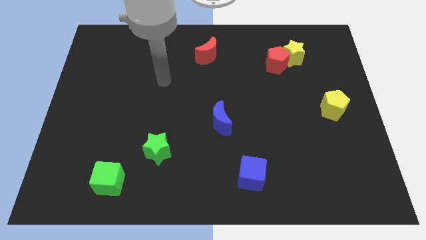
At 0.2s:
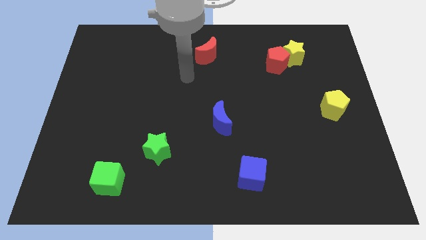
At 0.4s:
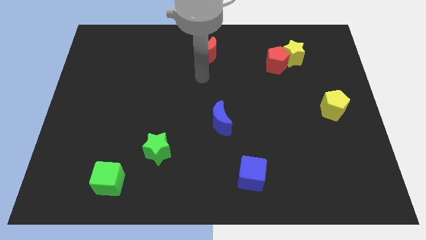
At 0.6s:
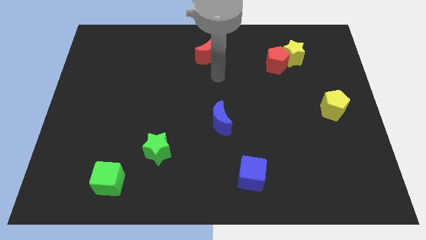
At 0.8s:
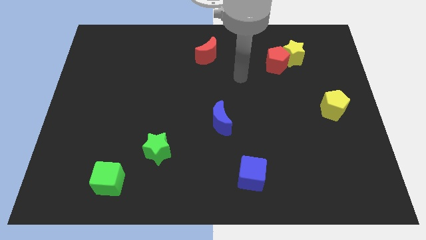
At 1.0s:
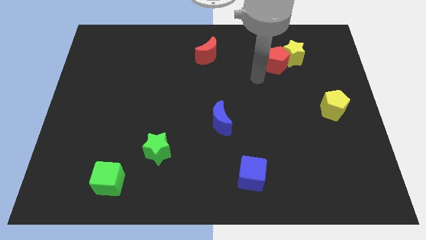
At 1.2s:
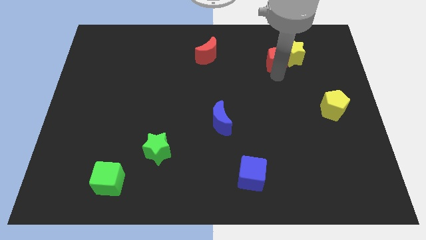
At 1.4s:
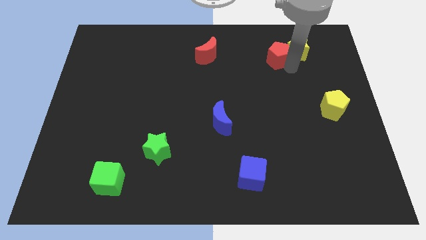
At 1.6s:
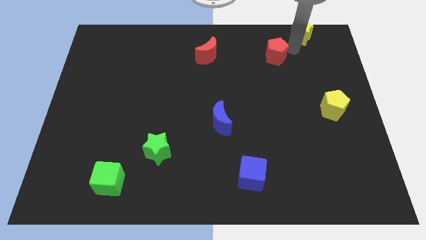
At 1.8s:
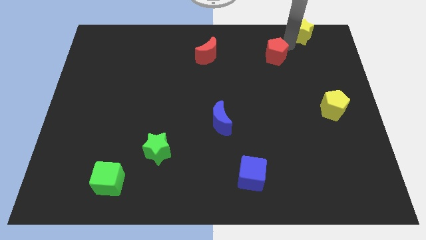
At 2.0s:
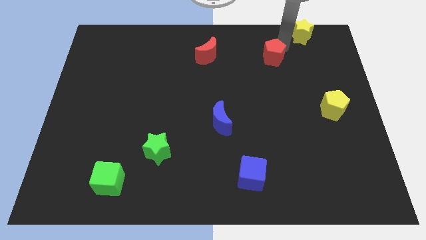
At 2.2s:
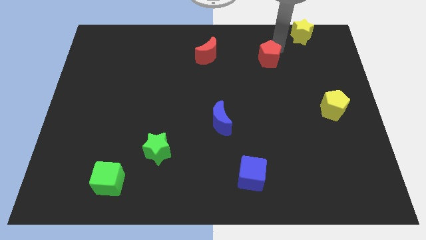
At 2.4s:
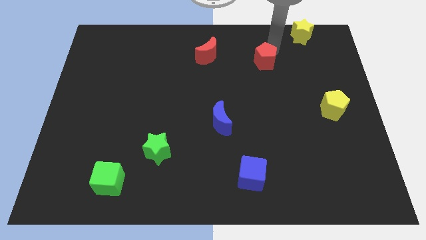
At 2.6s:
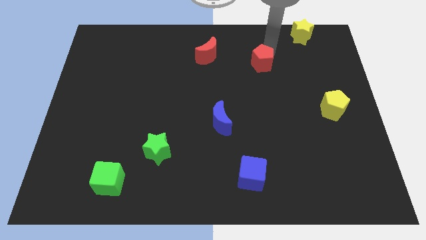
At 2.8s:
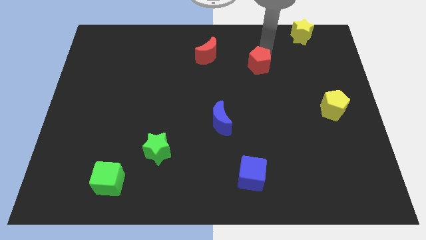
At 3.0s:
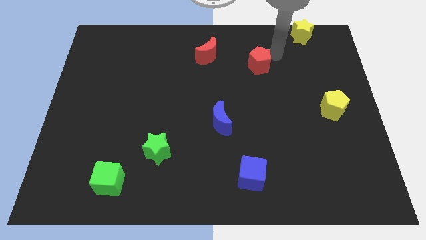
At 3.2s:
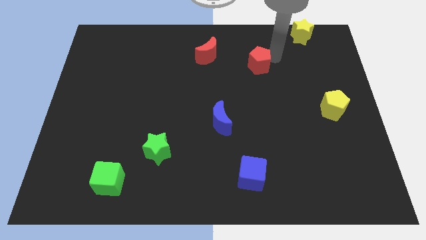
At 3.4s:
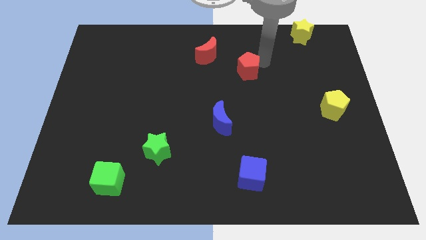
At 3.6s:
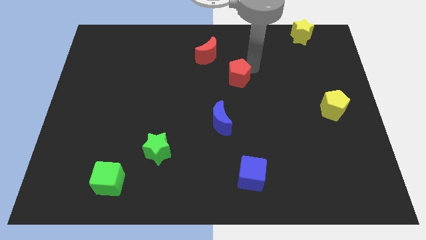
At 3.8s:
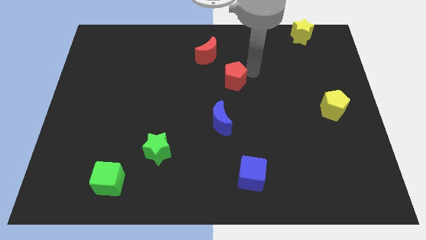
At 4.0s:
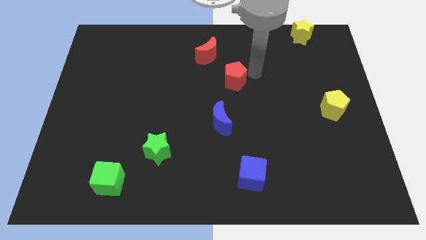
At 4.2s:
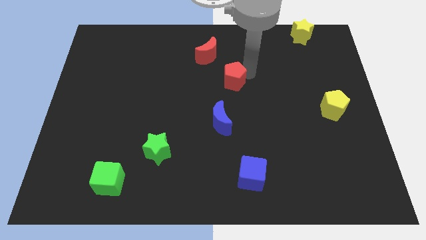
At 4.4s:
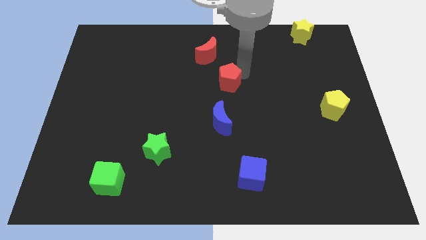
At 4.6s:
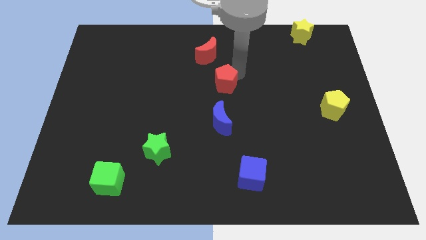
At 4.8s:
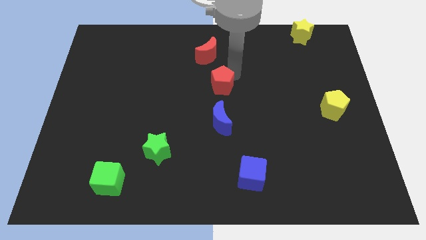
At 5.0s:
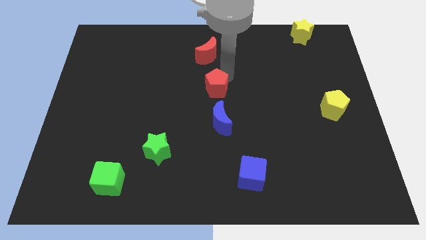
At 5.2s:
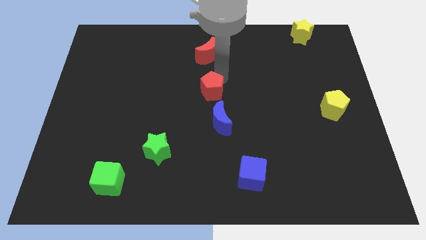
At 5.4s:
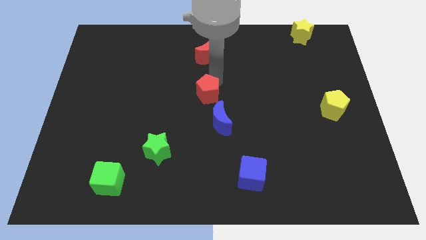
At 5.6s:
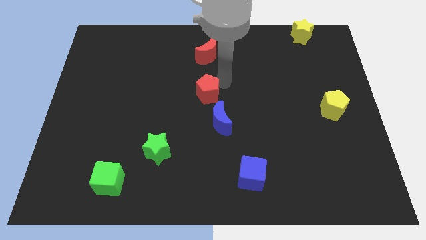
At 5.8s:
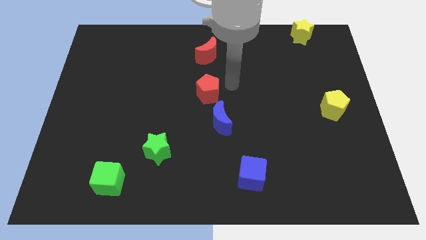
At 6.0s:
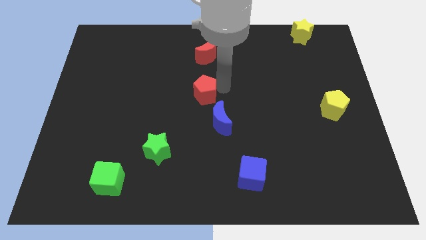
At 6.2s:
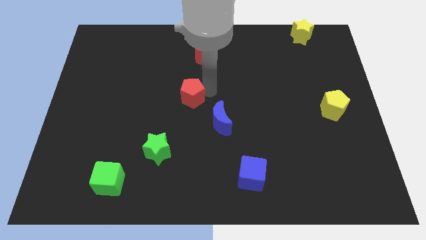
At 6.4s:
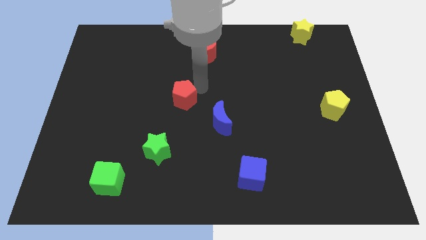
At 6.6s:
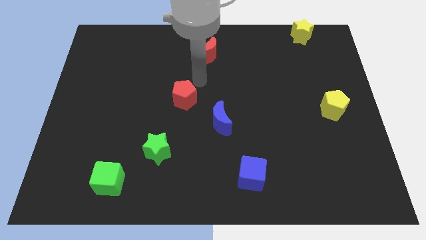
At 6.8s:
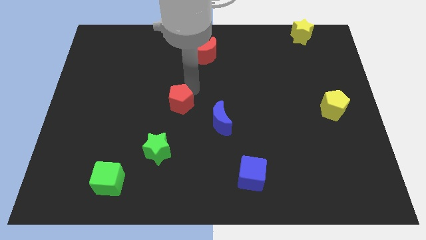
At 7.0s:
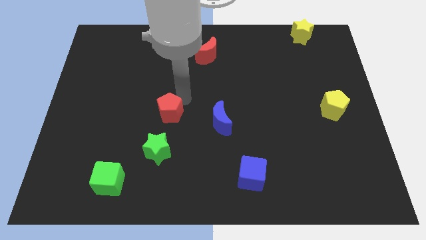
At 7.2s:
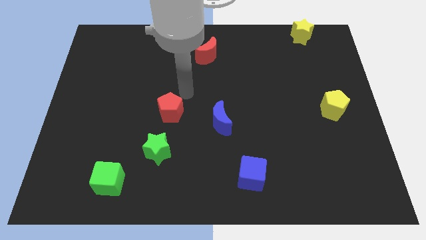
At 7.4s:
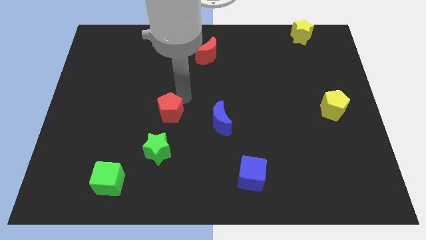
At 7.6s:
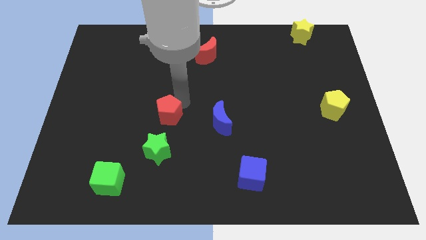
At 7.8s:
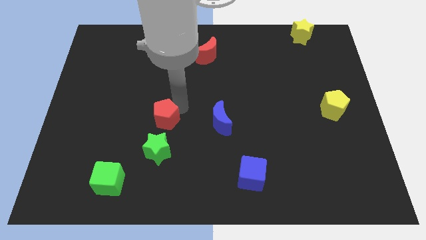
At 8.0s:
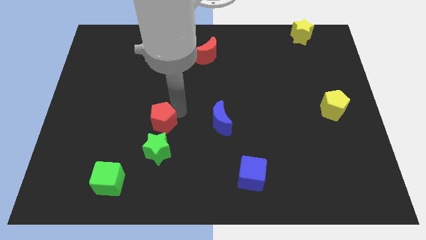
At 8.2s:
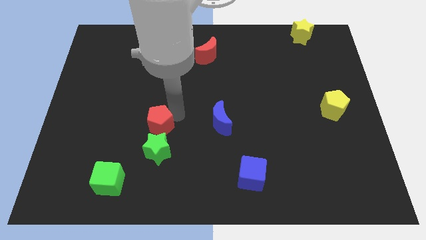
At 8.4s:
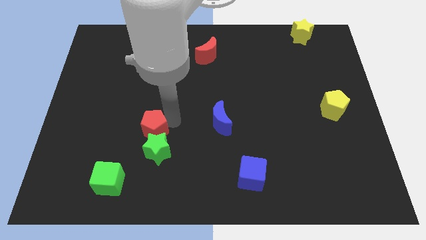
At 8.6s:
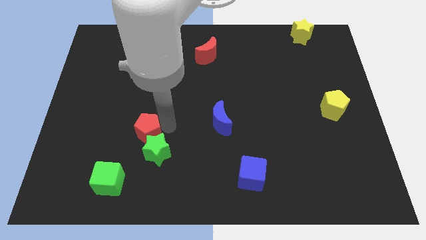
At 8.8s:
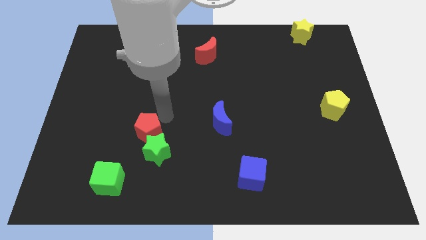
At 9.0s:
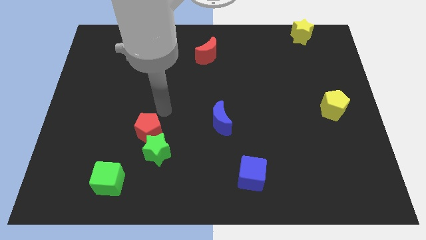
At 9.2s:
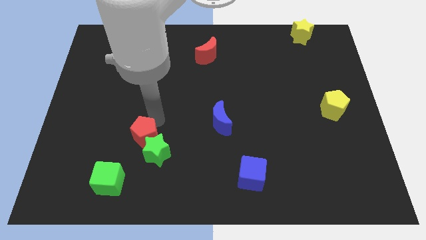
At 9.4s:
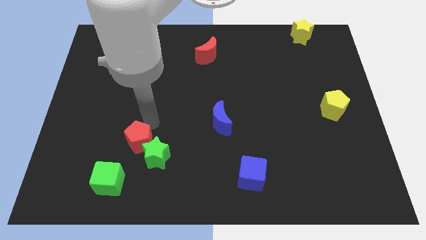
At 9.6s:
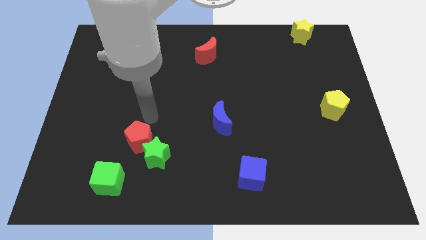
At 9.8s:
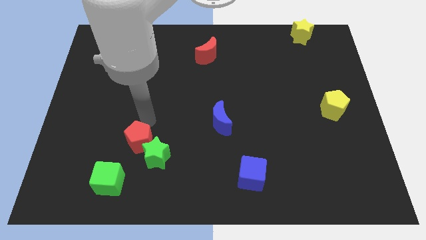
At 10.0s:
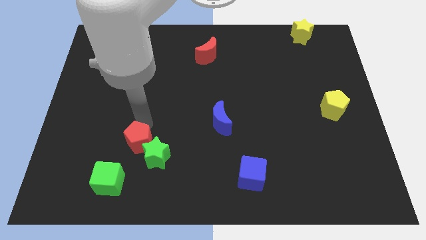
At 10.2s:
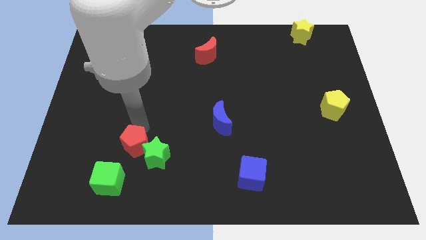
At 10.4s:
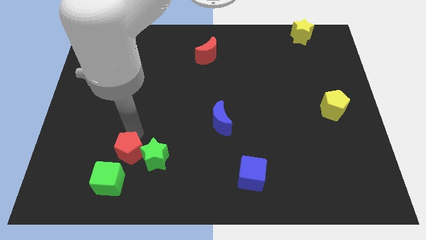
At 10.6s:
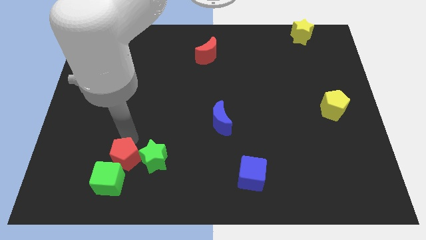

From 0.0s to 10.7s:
put the red pentagon next to the green cube

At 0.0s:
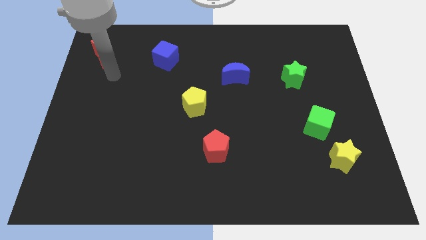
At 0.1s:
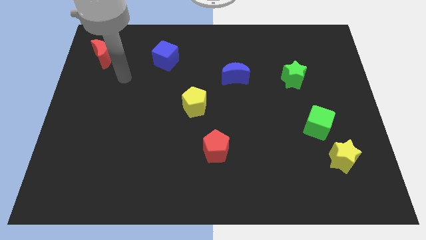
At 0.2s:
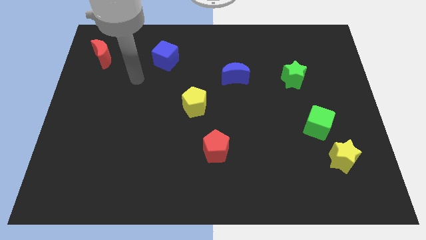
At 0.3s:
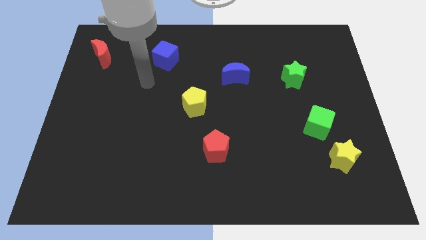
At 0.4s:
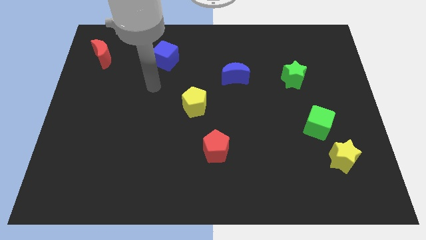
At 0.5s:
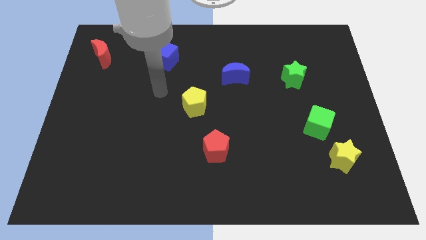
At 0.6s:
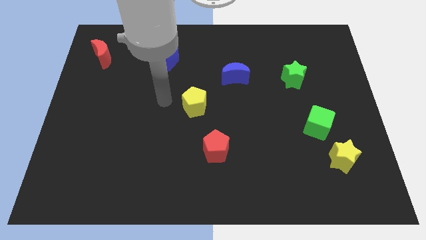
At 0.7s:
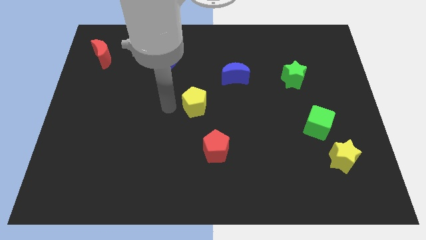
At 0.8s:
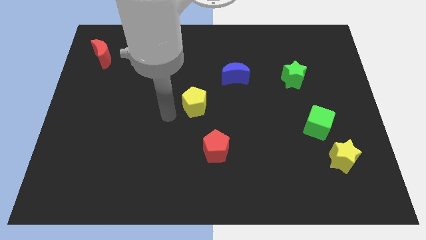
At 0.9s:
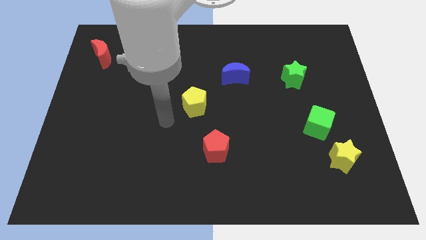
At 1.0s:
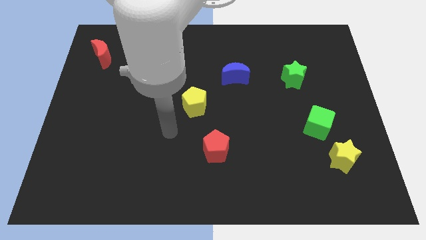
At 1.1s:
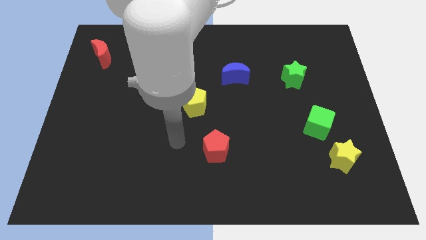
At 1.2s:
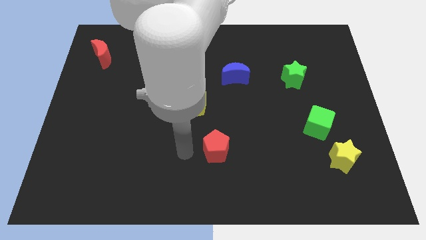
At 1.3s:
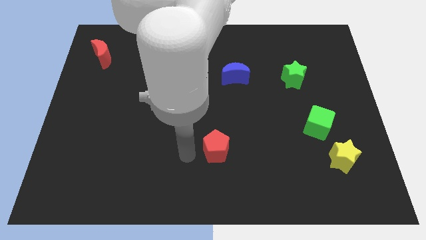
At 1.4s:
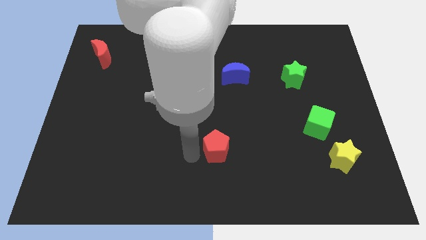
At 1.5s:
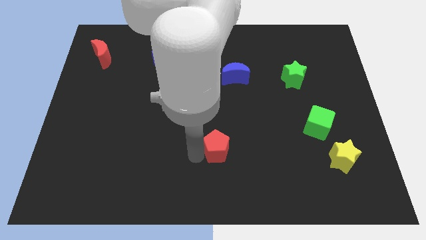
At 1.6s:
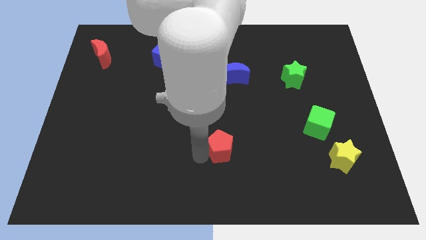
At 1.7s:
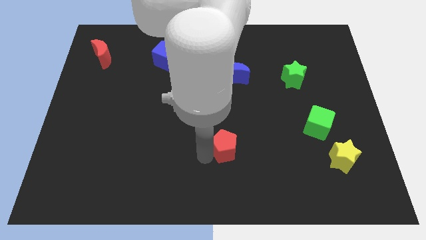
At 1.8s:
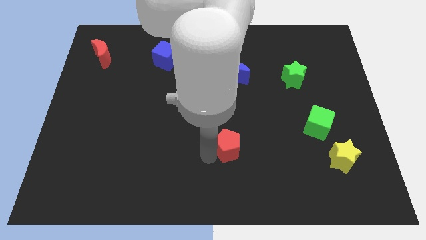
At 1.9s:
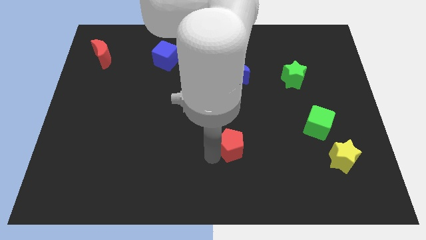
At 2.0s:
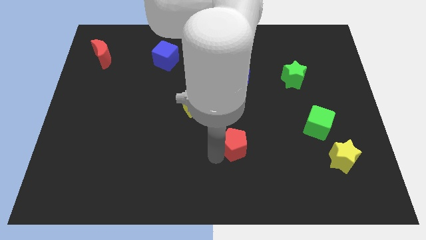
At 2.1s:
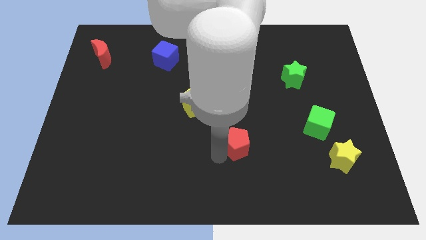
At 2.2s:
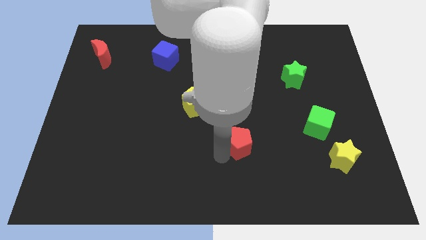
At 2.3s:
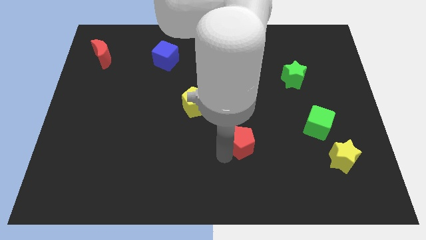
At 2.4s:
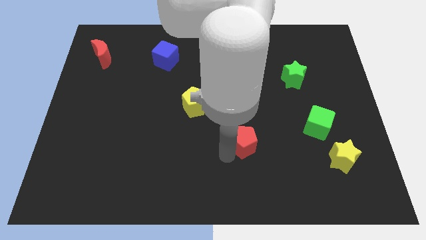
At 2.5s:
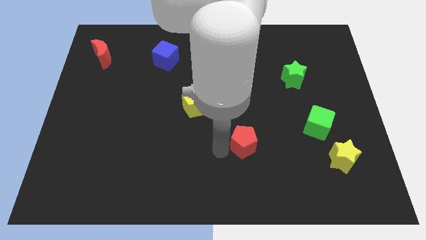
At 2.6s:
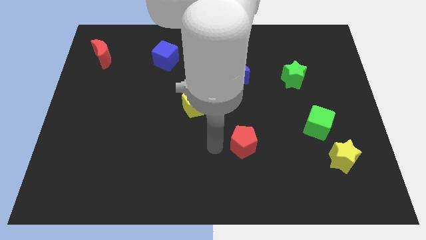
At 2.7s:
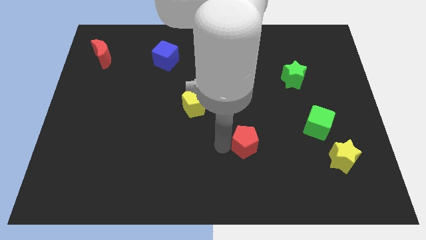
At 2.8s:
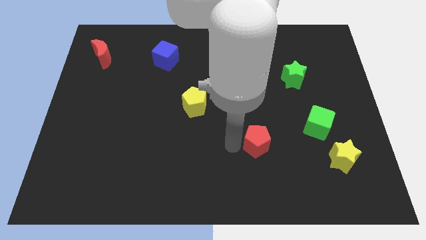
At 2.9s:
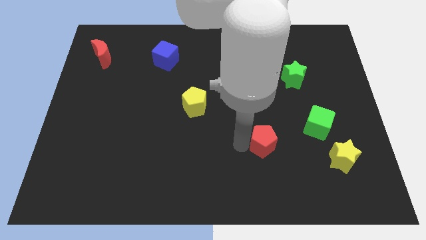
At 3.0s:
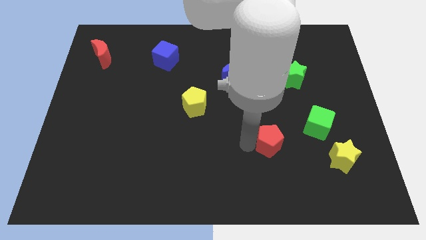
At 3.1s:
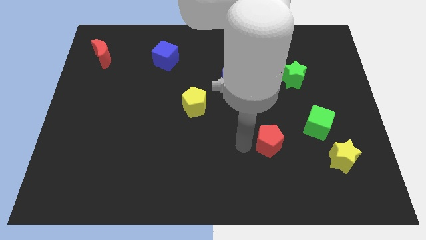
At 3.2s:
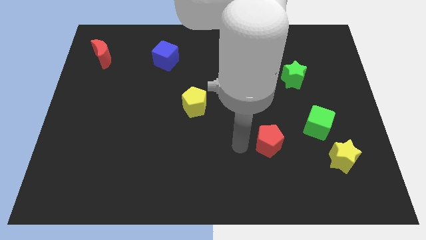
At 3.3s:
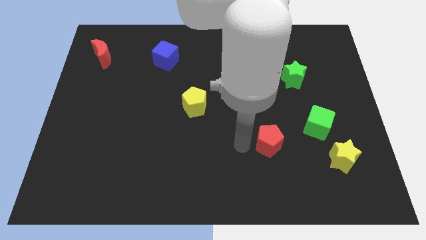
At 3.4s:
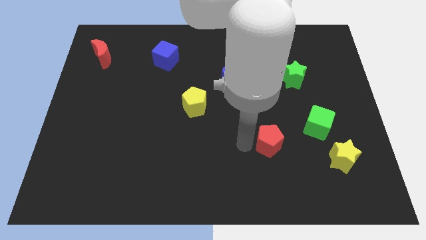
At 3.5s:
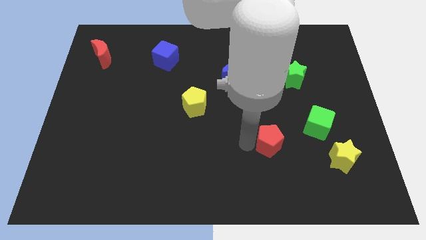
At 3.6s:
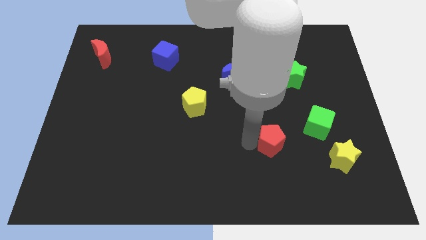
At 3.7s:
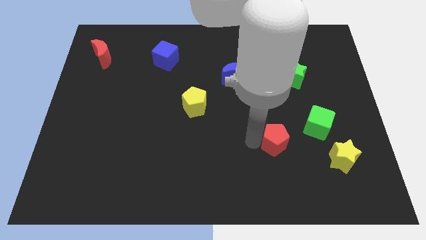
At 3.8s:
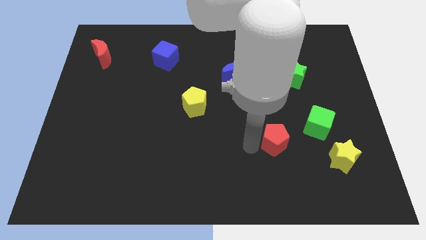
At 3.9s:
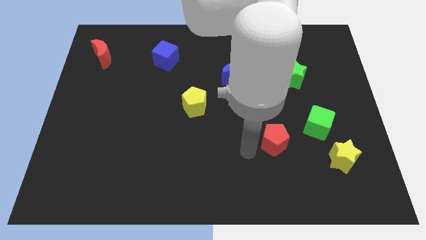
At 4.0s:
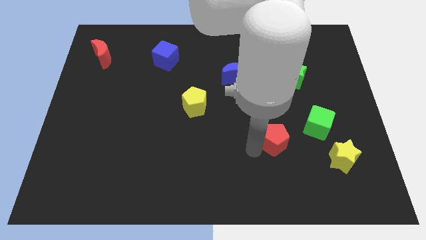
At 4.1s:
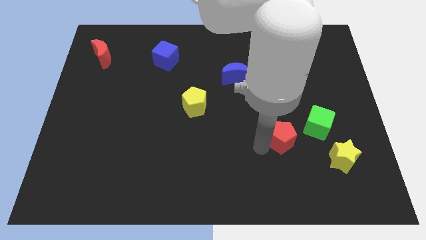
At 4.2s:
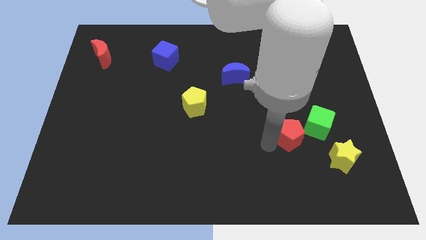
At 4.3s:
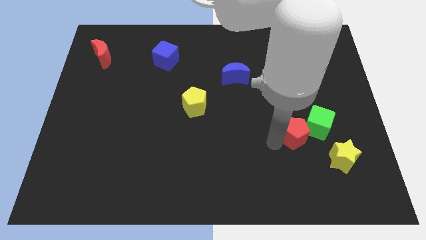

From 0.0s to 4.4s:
push the red pentagon to the green cube
